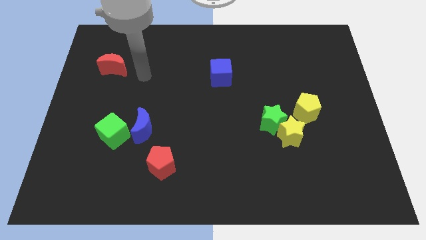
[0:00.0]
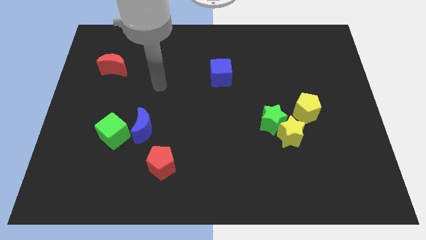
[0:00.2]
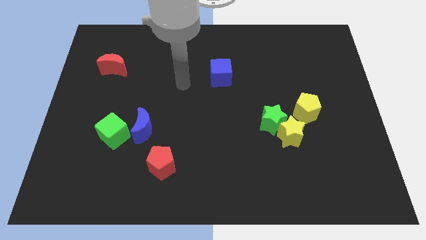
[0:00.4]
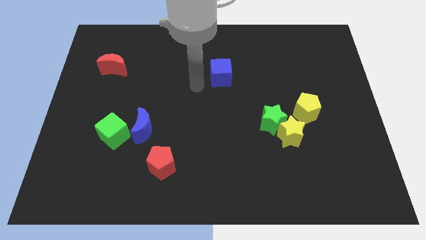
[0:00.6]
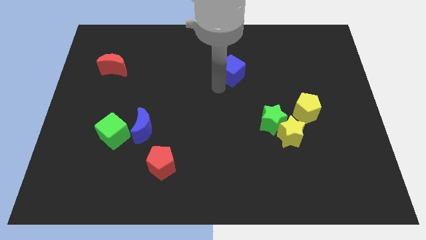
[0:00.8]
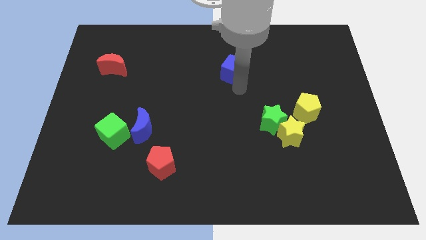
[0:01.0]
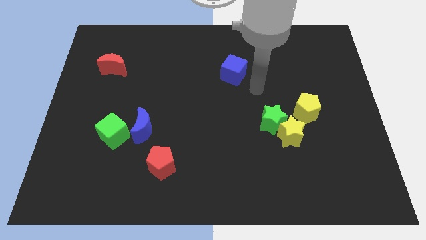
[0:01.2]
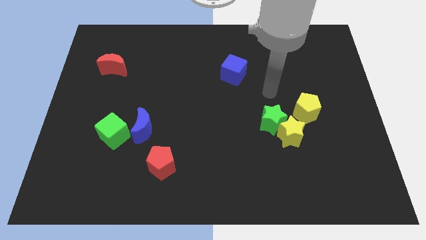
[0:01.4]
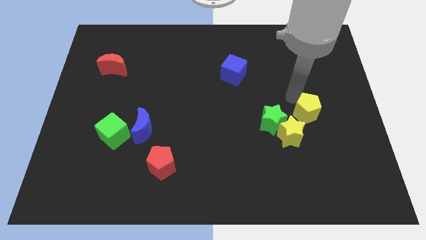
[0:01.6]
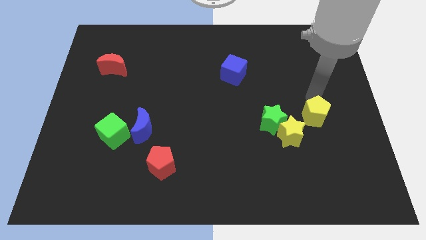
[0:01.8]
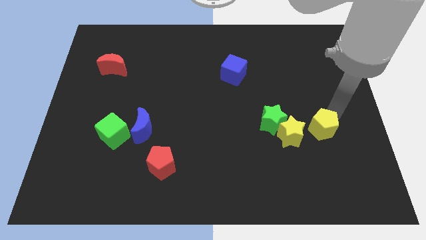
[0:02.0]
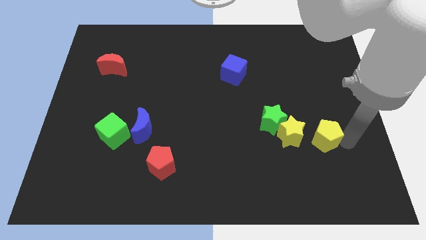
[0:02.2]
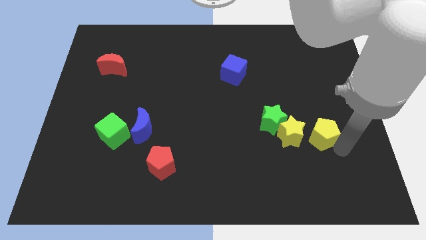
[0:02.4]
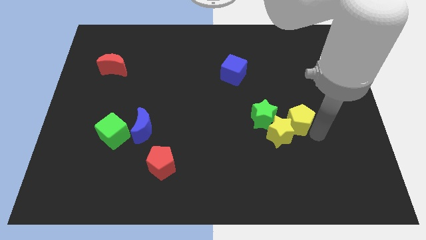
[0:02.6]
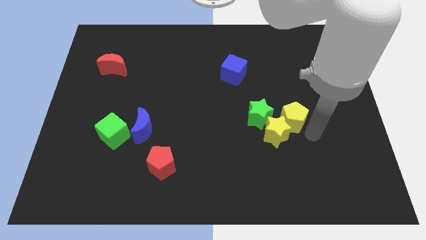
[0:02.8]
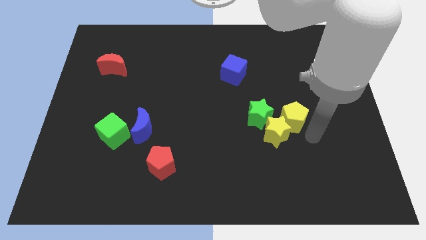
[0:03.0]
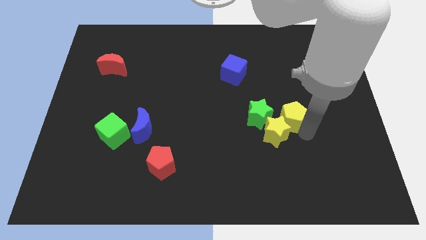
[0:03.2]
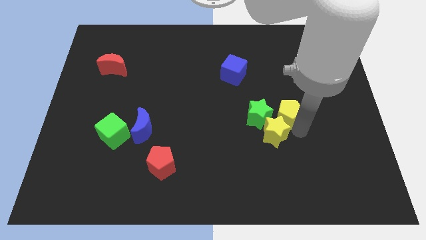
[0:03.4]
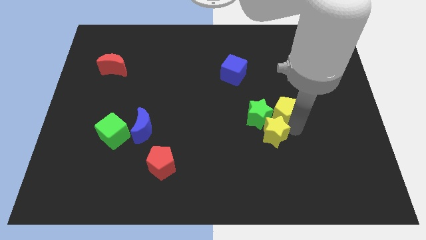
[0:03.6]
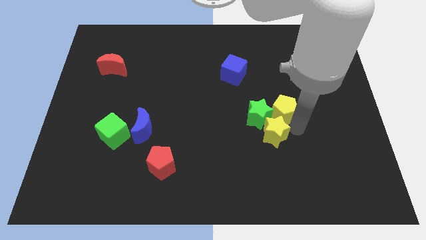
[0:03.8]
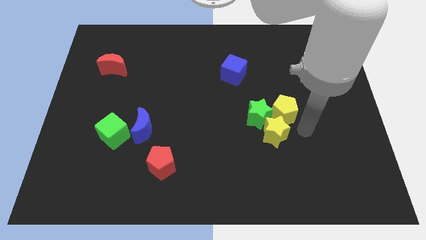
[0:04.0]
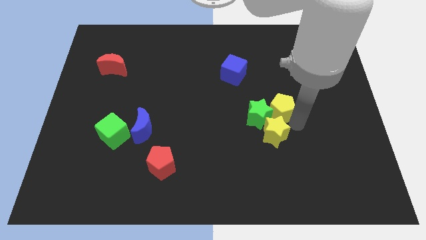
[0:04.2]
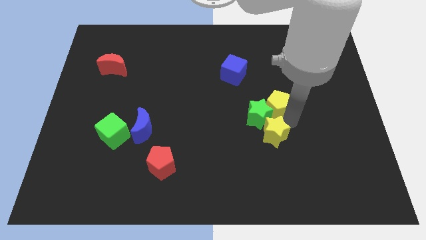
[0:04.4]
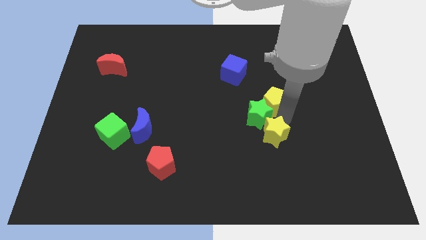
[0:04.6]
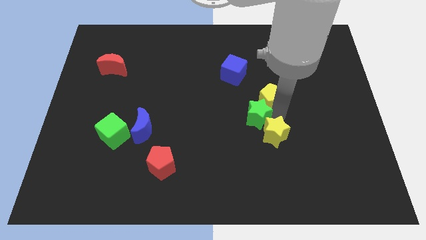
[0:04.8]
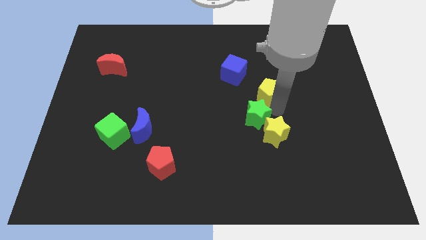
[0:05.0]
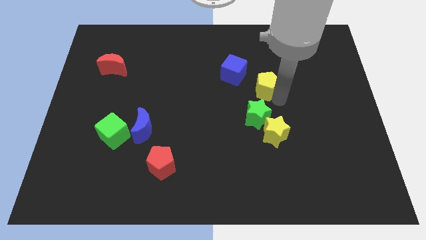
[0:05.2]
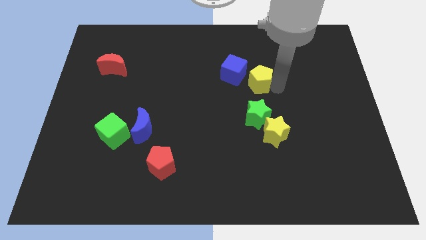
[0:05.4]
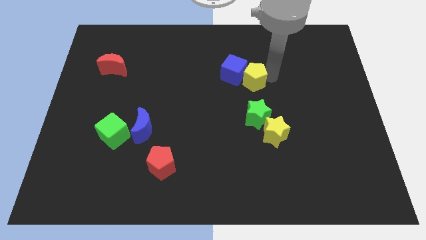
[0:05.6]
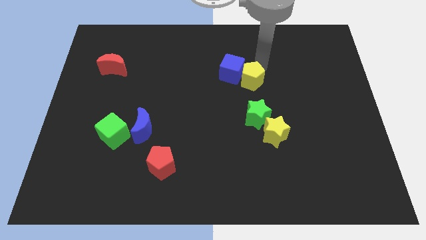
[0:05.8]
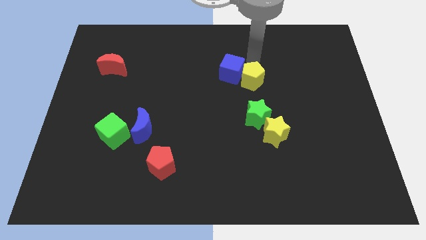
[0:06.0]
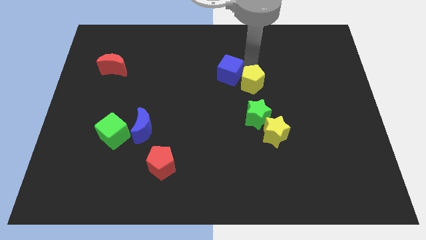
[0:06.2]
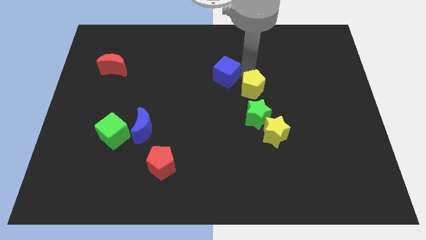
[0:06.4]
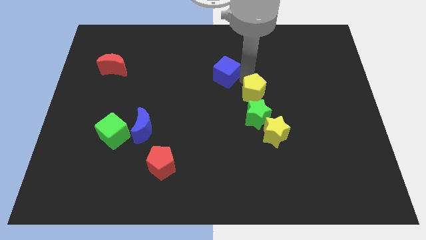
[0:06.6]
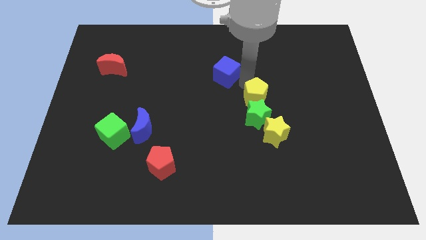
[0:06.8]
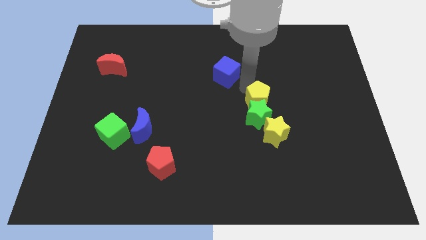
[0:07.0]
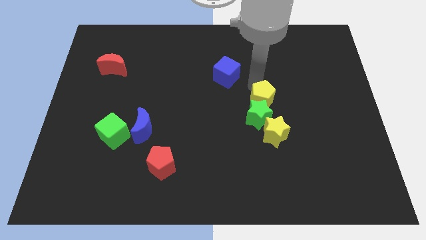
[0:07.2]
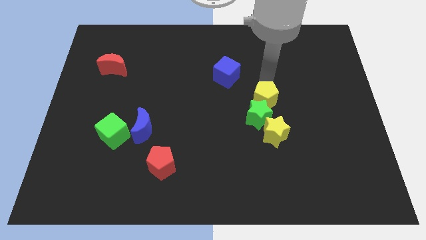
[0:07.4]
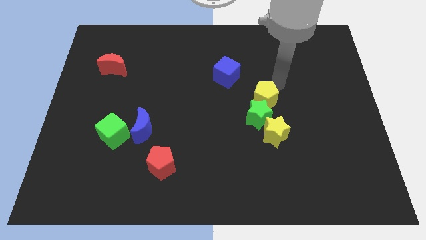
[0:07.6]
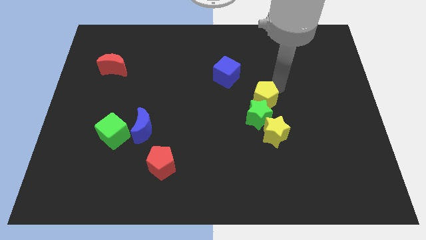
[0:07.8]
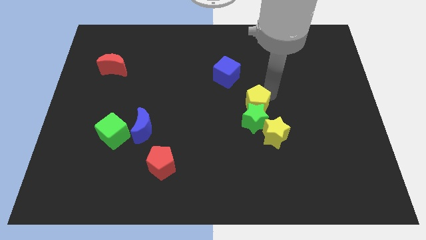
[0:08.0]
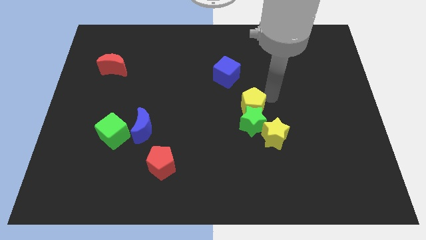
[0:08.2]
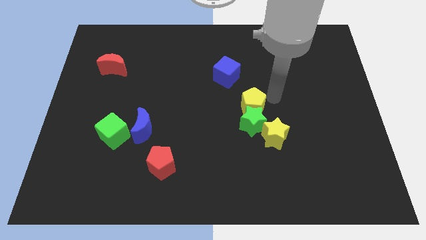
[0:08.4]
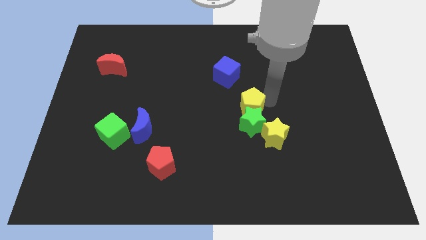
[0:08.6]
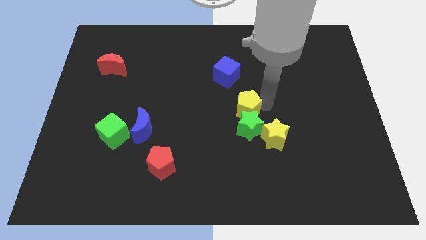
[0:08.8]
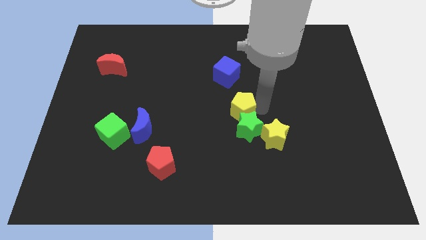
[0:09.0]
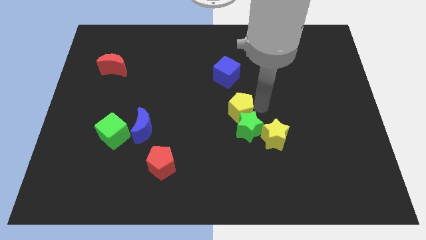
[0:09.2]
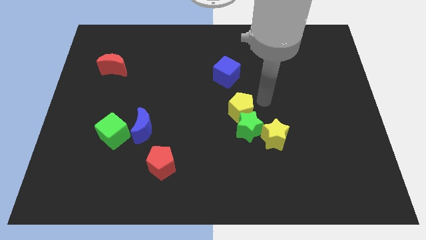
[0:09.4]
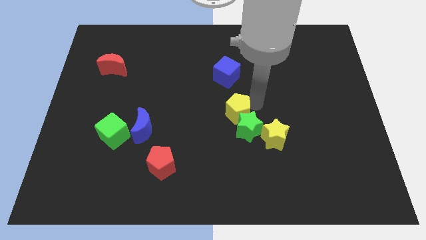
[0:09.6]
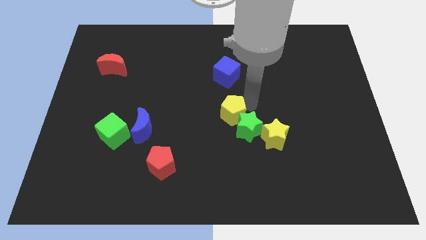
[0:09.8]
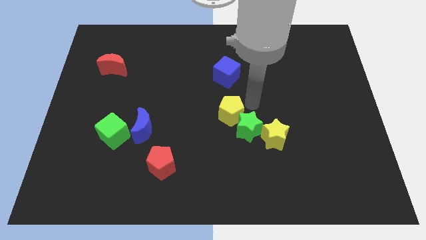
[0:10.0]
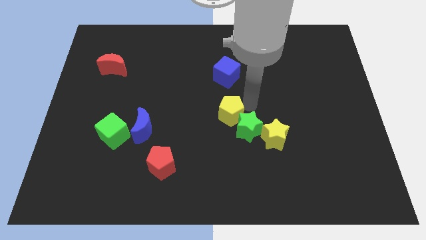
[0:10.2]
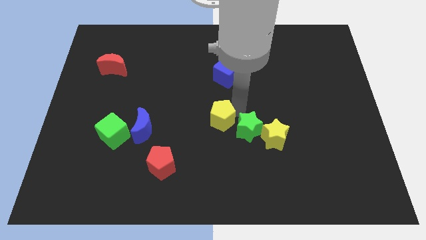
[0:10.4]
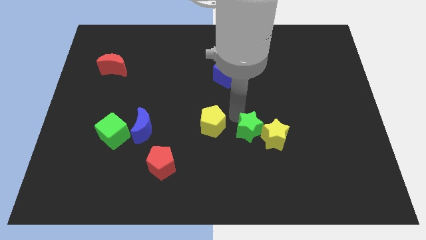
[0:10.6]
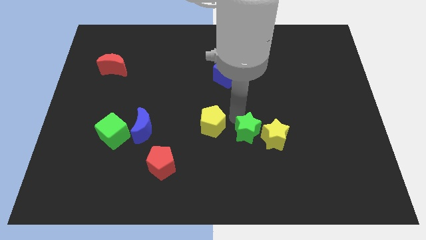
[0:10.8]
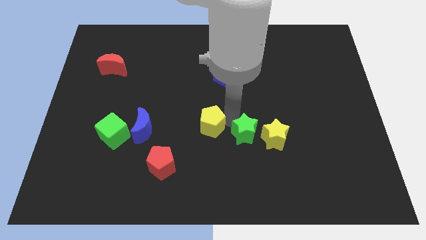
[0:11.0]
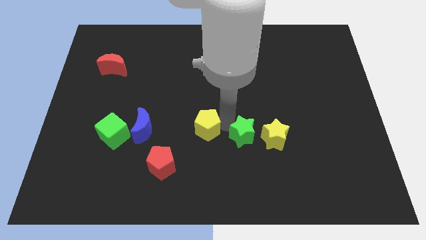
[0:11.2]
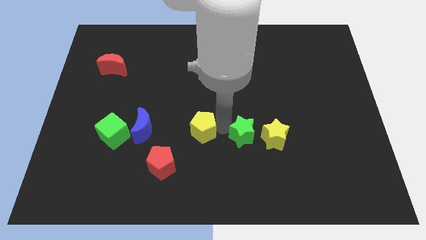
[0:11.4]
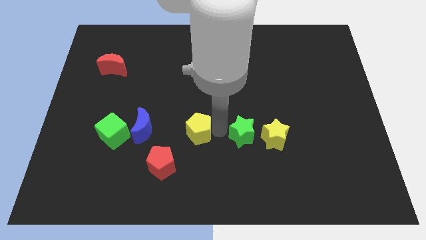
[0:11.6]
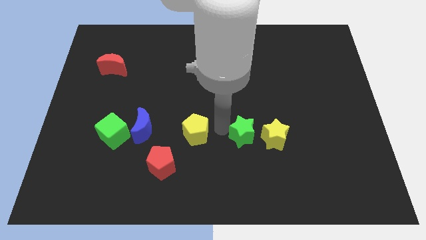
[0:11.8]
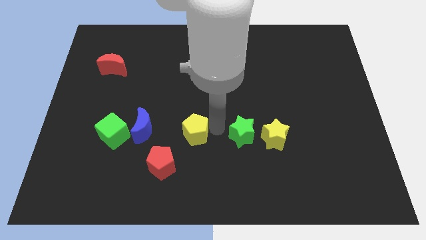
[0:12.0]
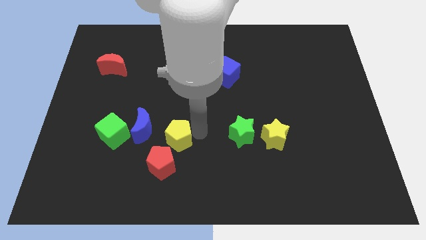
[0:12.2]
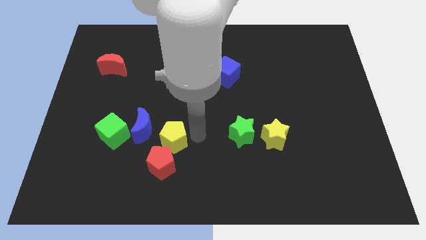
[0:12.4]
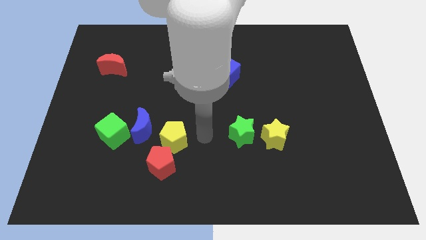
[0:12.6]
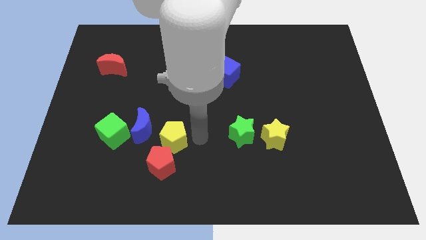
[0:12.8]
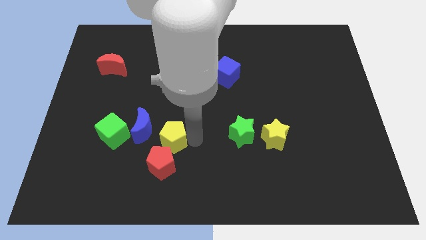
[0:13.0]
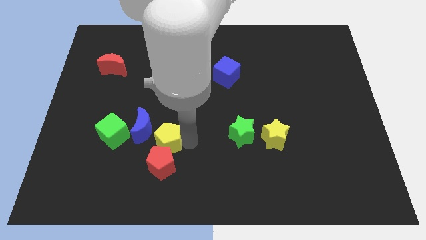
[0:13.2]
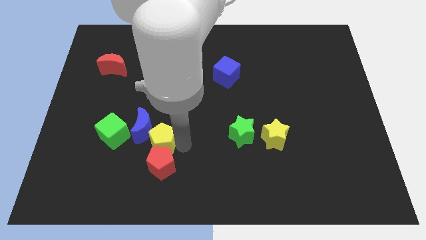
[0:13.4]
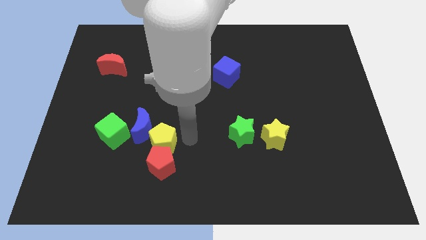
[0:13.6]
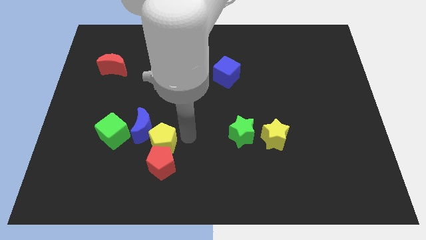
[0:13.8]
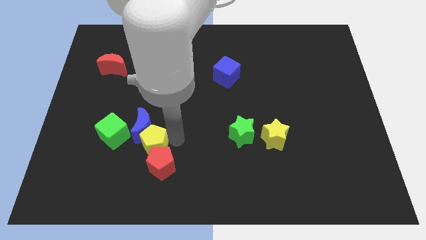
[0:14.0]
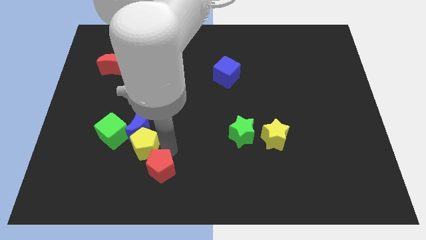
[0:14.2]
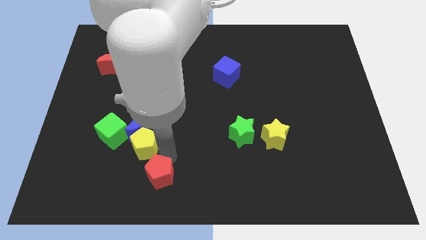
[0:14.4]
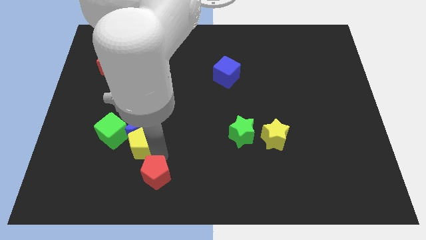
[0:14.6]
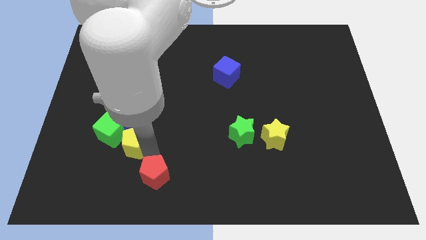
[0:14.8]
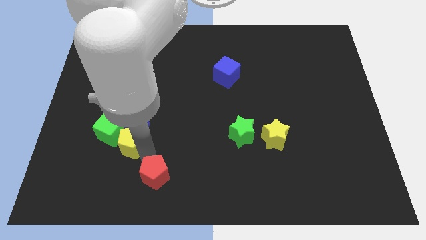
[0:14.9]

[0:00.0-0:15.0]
move the yellow pentagon to the green cube
